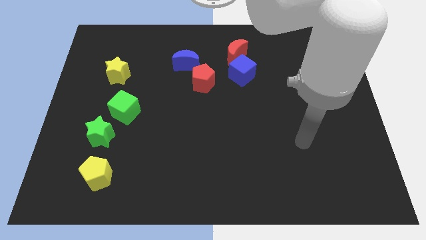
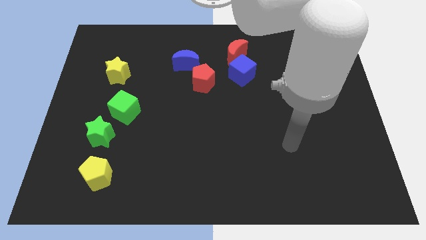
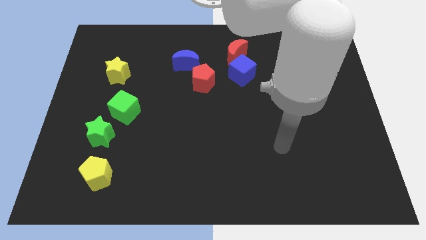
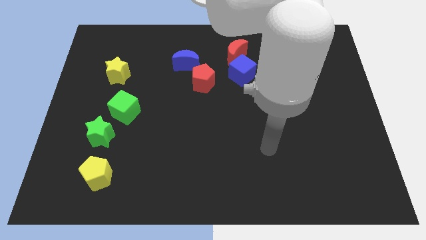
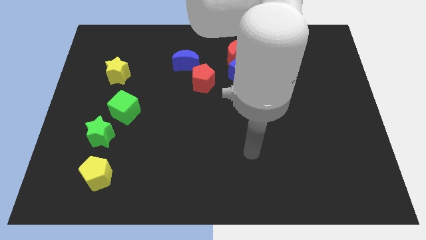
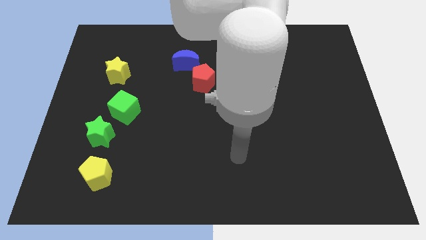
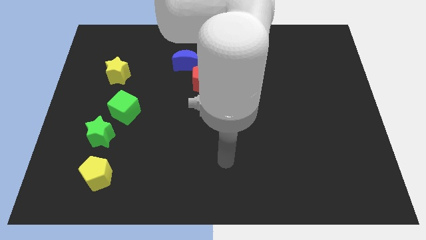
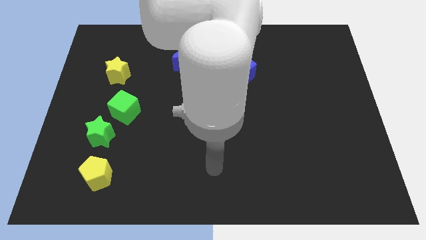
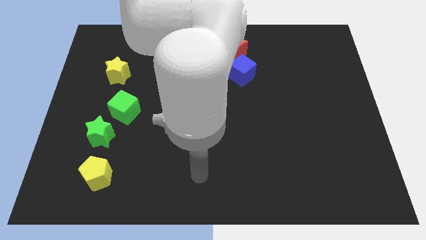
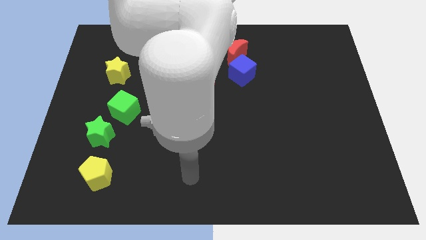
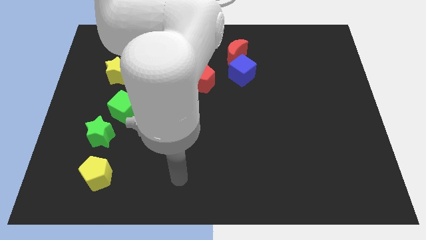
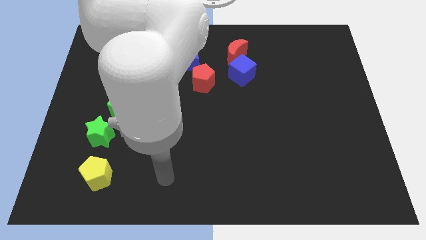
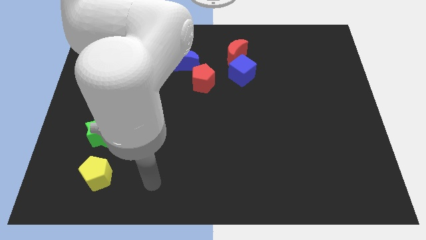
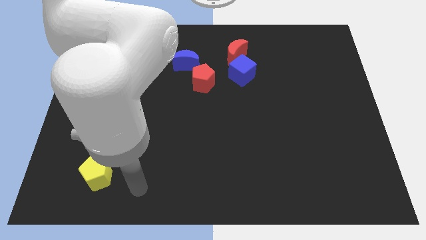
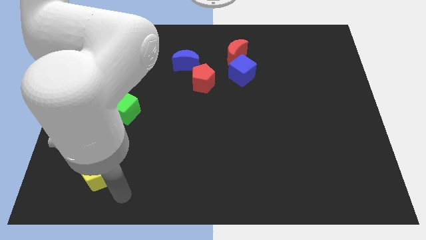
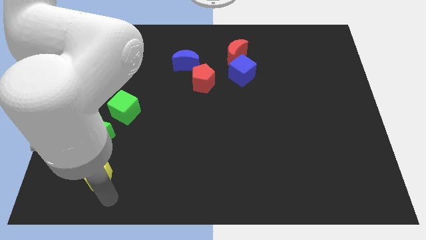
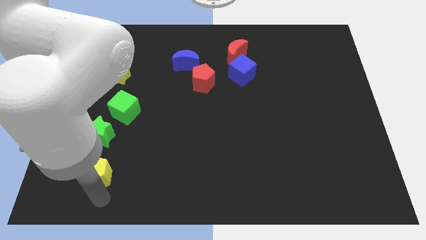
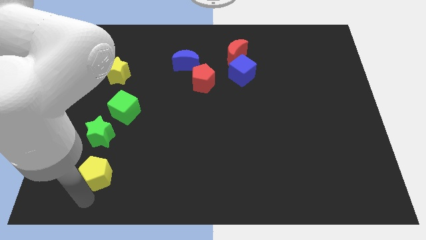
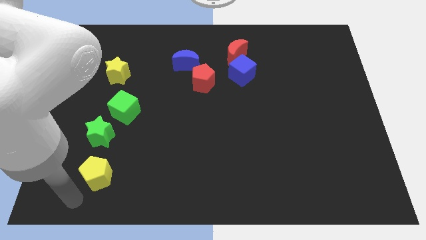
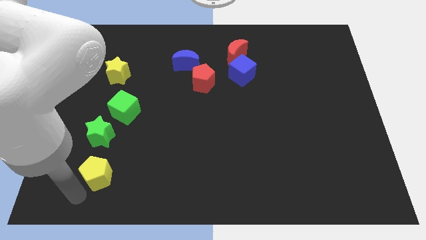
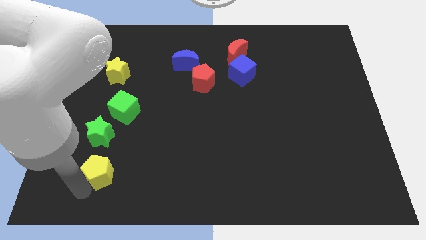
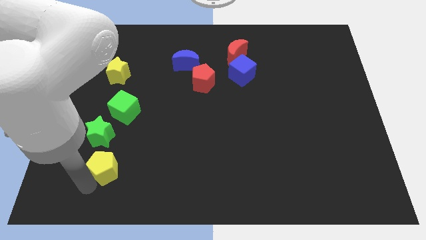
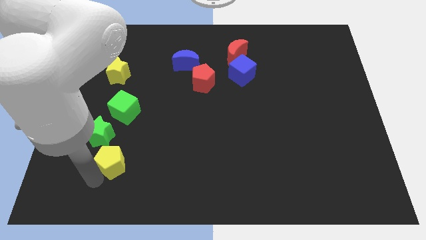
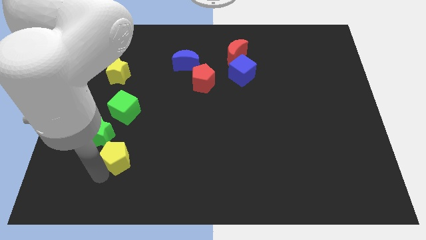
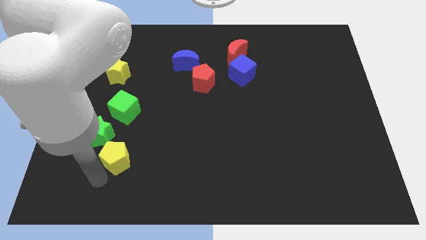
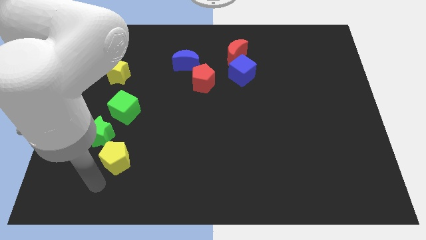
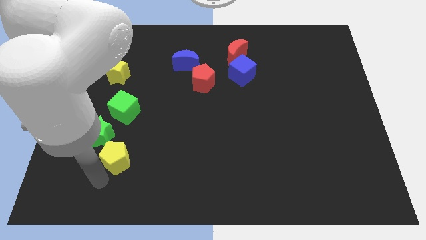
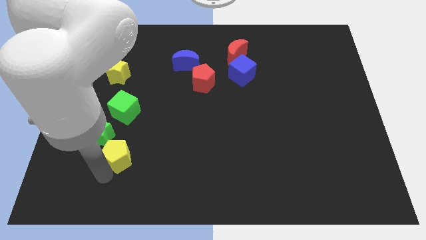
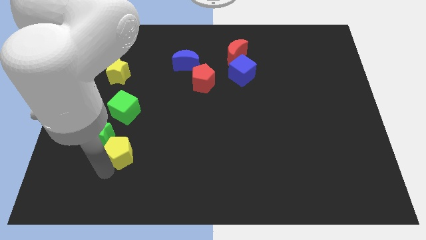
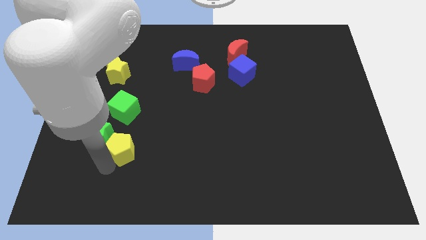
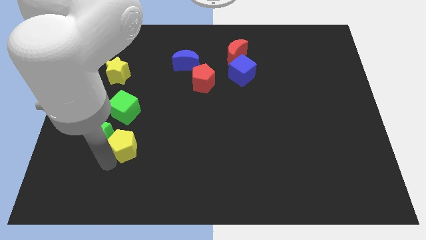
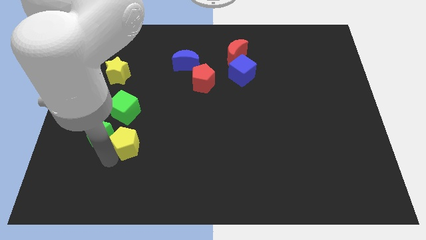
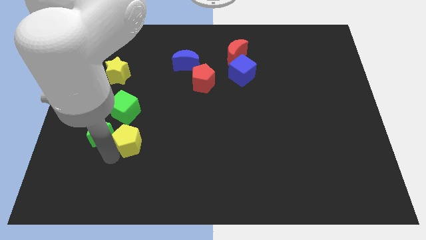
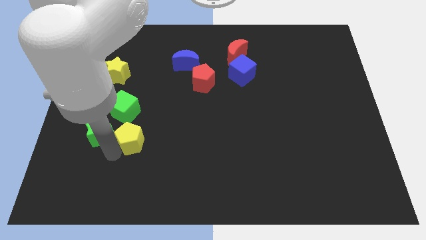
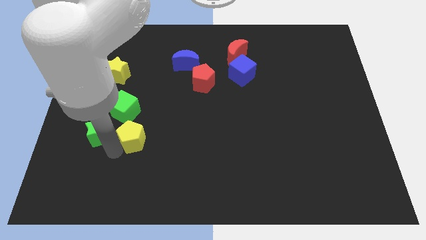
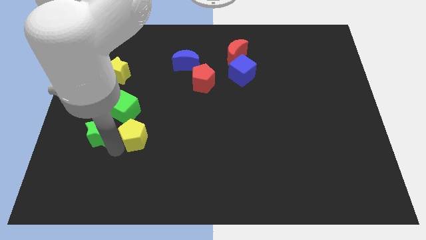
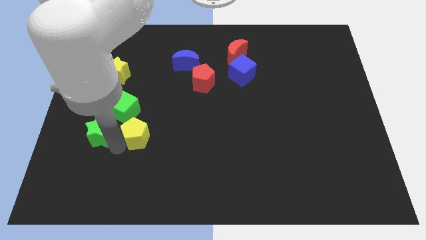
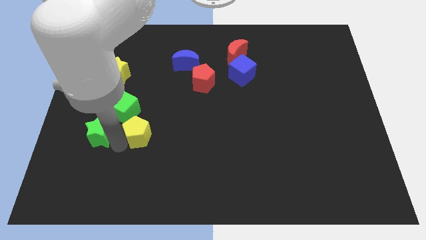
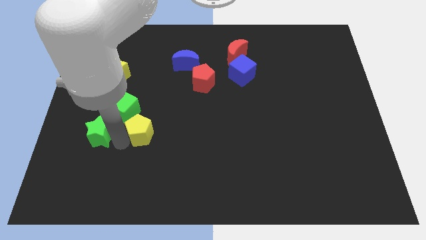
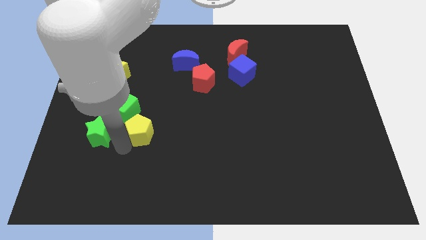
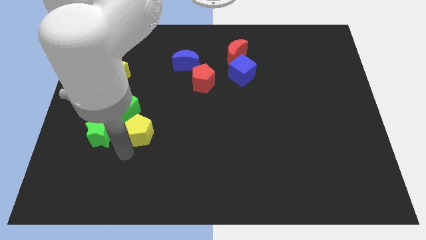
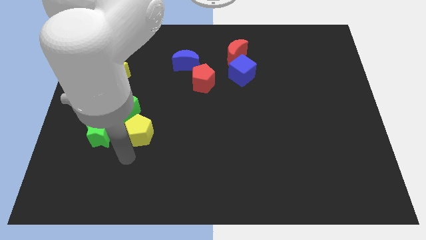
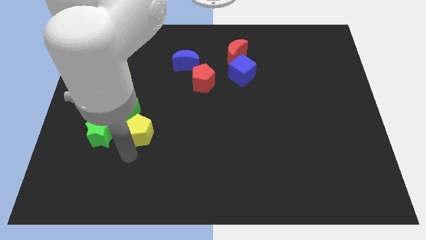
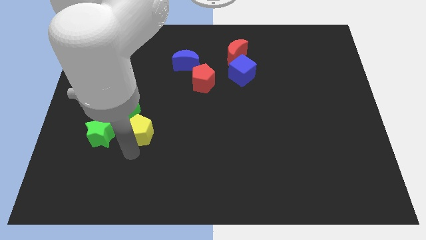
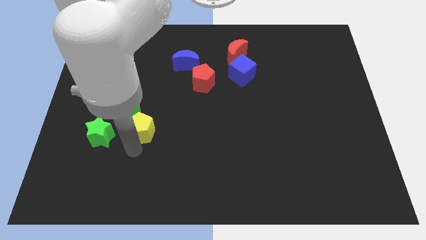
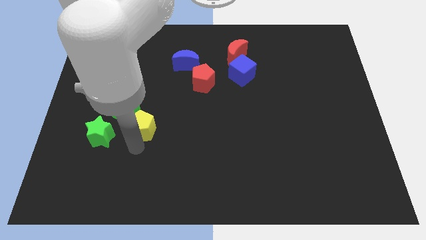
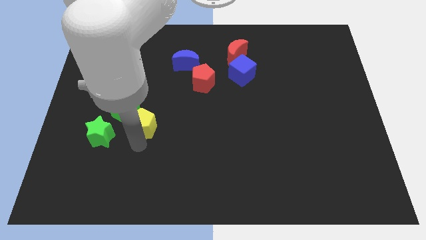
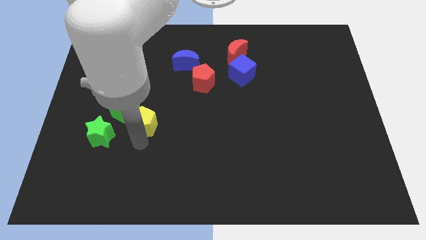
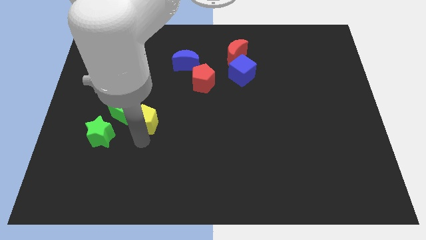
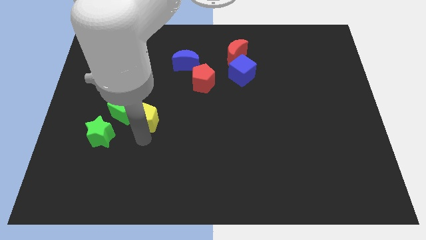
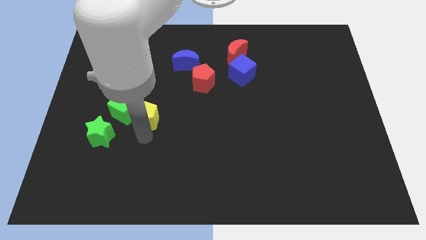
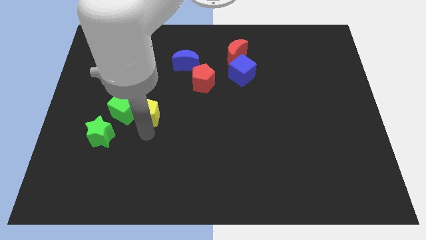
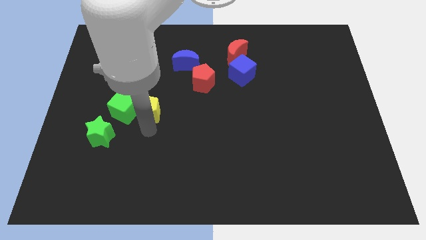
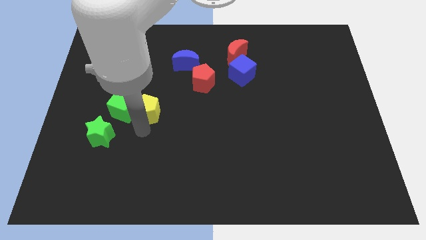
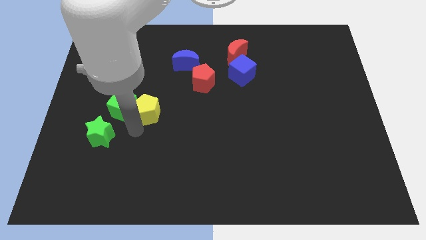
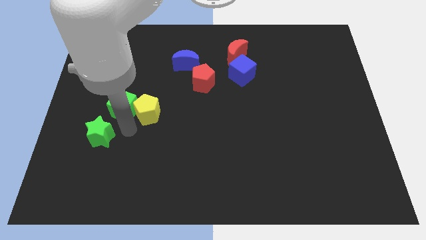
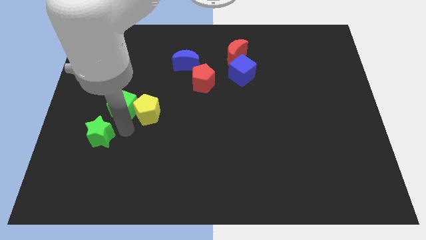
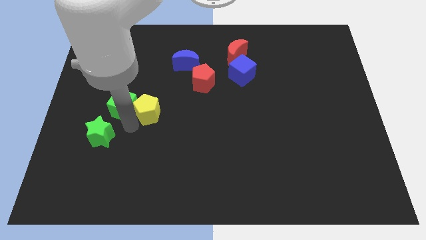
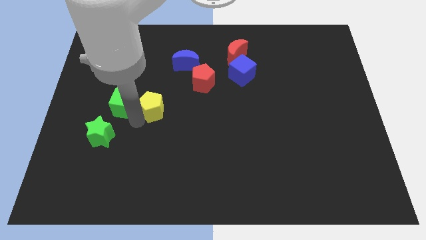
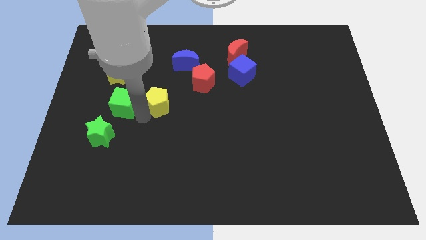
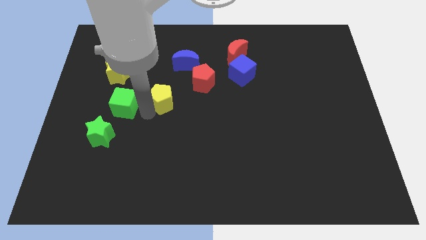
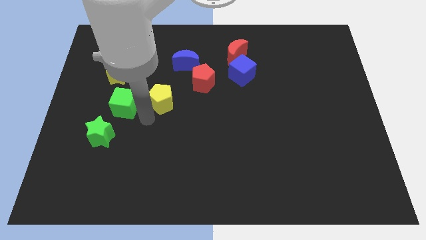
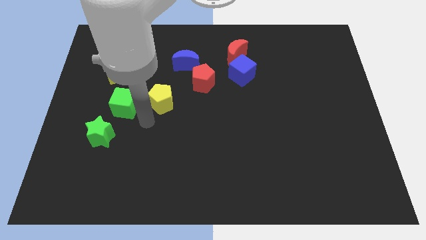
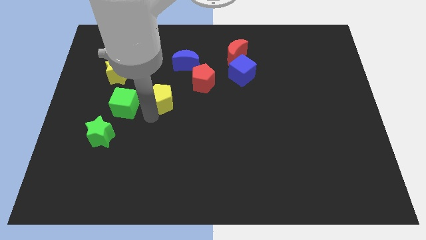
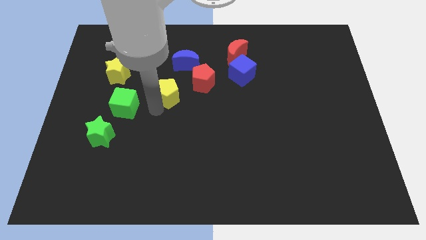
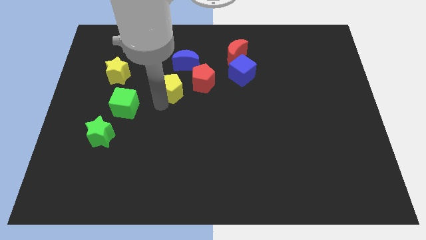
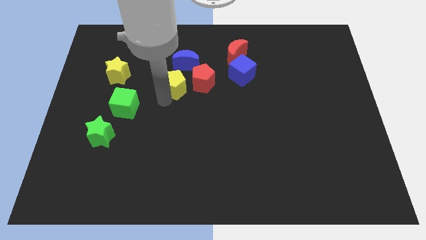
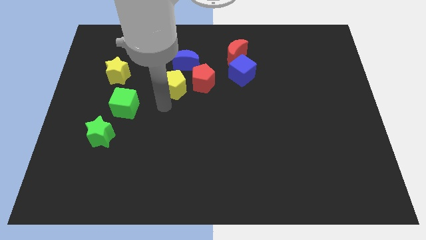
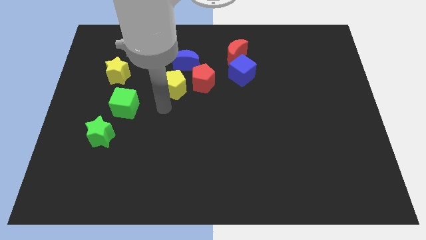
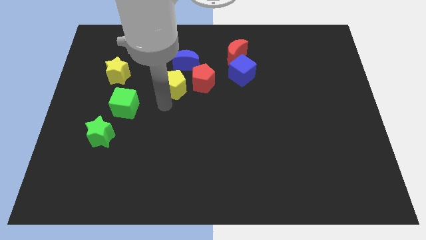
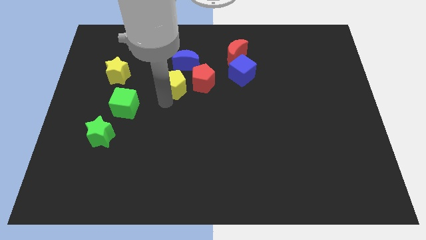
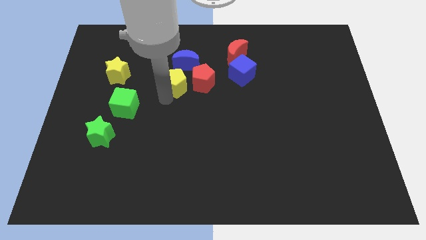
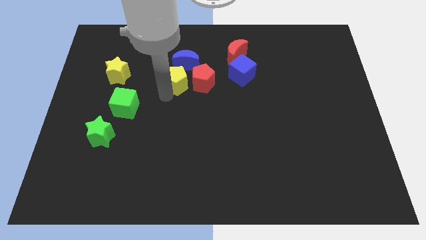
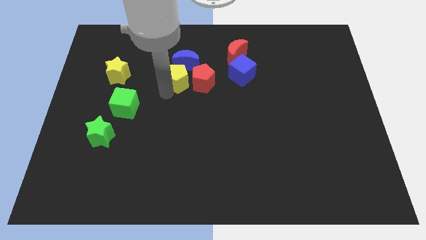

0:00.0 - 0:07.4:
push the yellow pentagon close to the blue moon

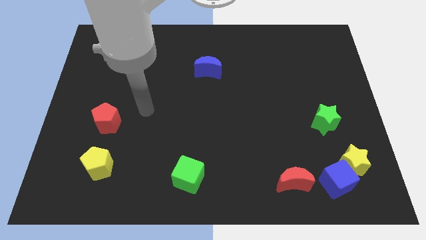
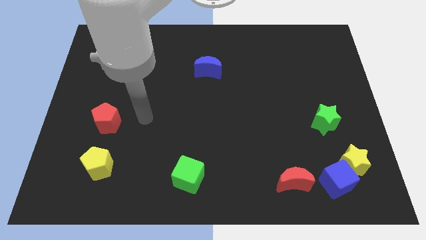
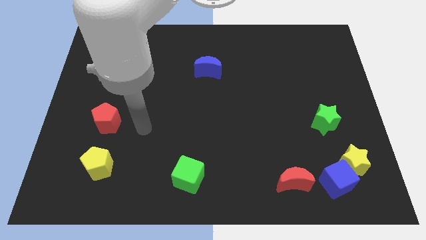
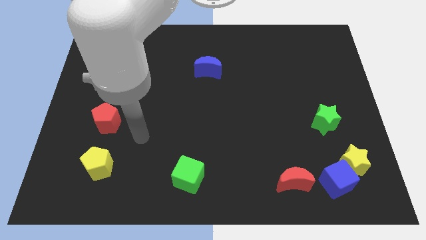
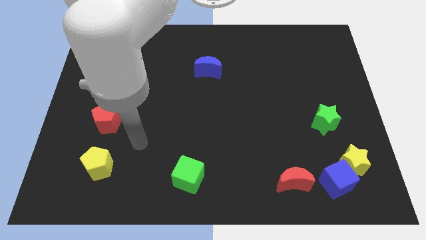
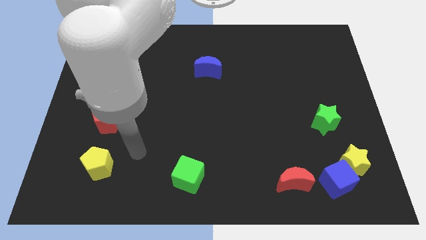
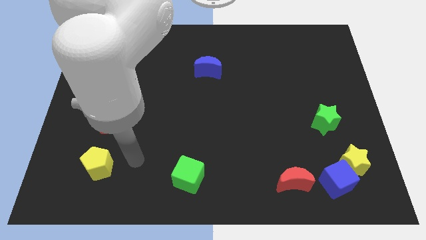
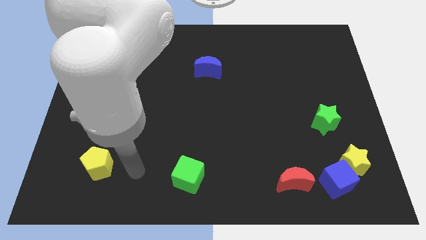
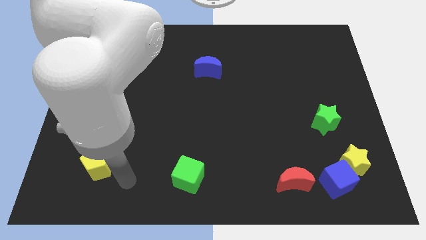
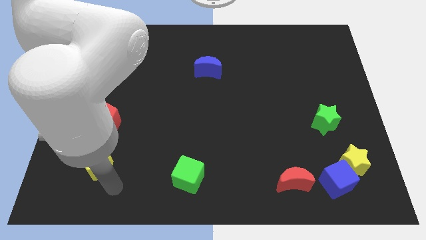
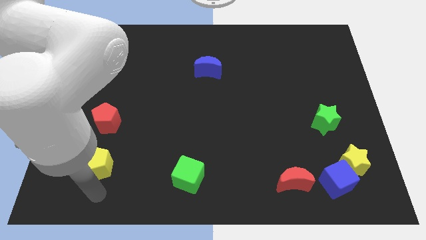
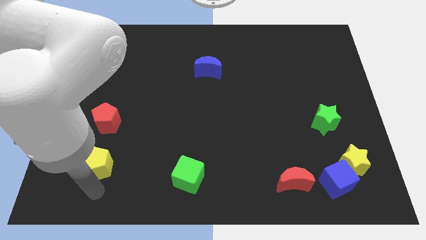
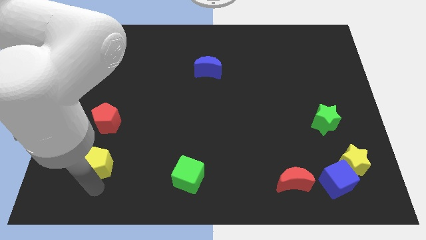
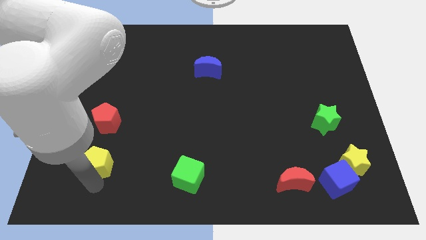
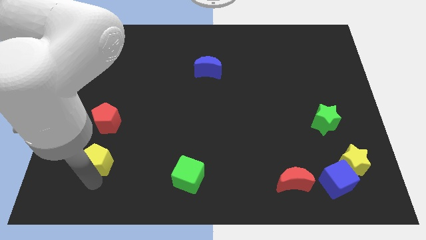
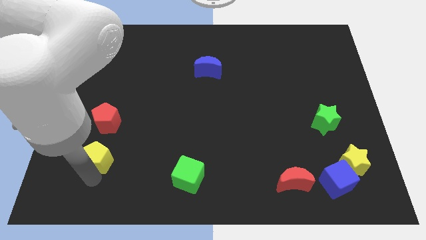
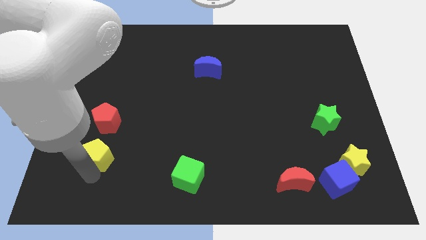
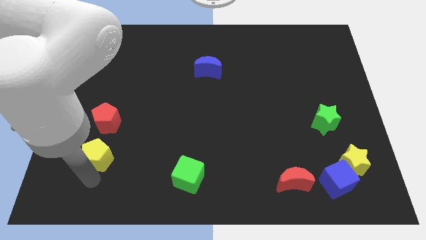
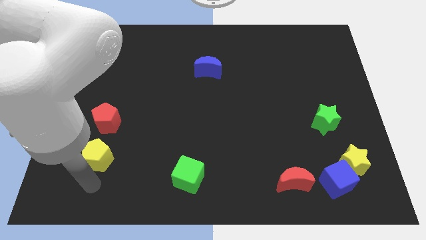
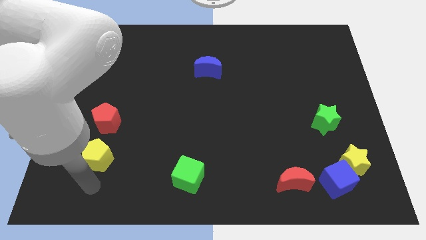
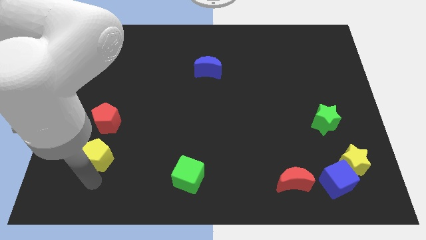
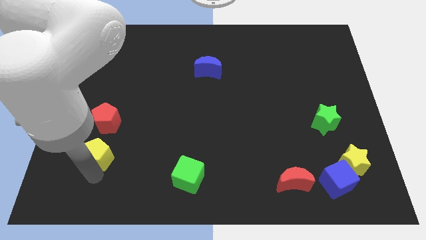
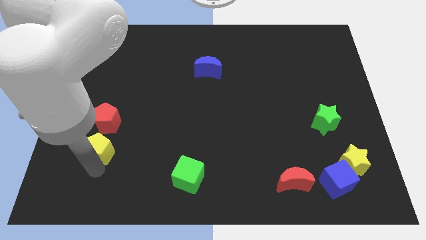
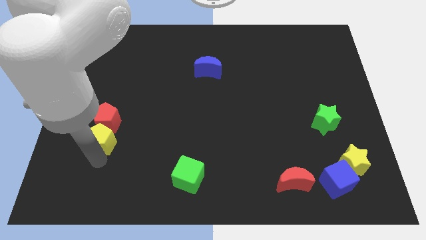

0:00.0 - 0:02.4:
put the yellow pentagon close to the red pentagon
